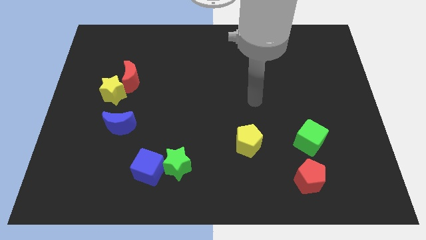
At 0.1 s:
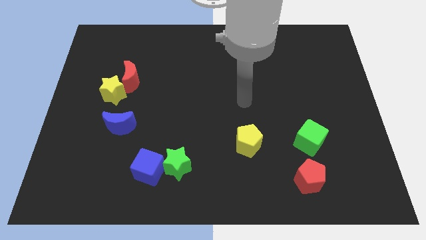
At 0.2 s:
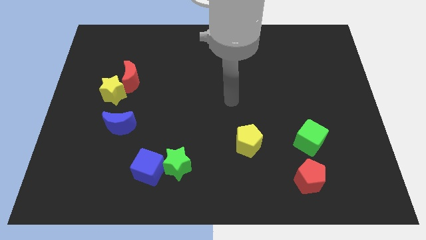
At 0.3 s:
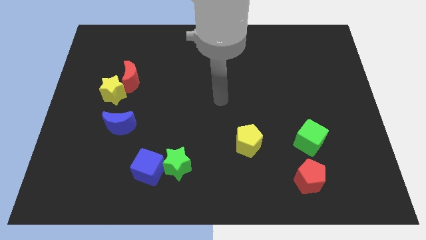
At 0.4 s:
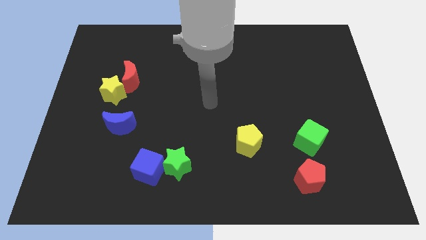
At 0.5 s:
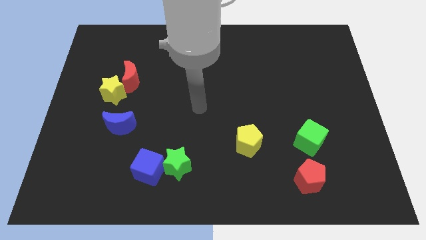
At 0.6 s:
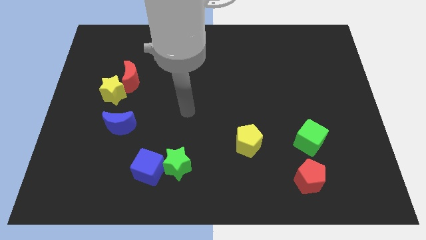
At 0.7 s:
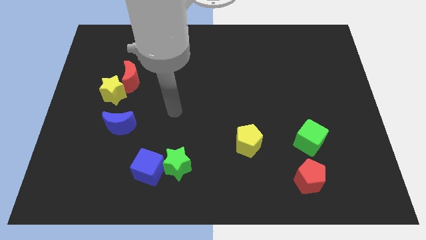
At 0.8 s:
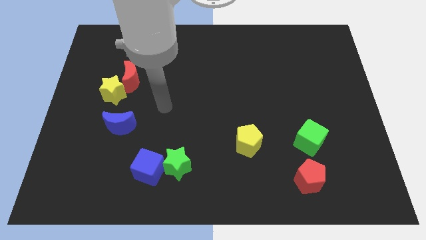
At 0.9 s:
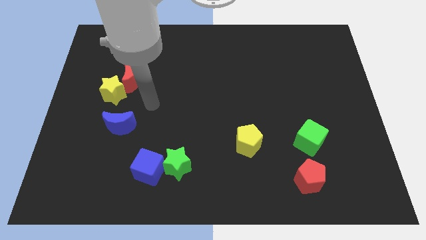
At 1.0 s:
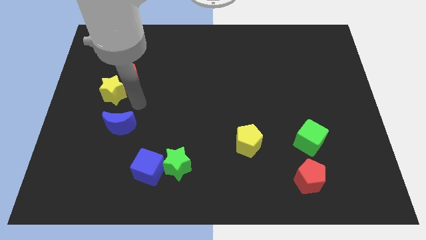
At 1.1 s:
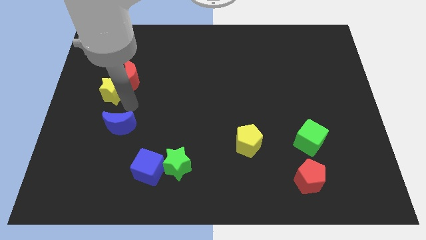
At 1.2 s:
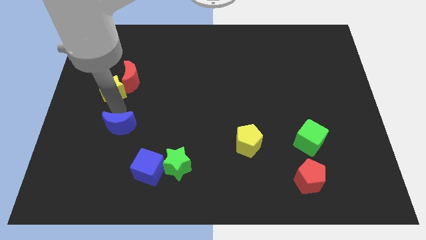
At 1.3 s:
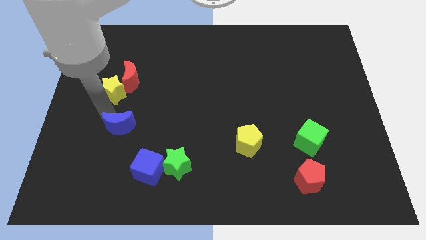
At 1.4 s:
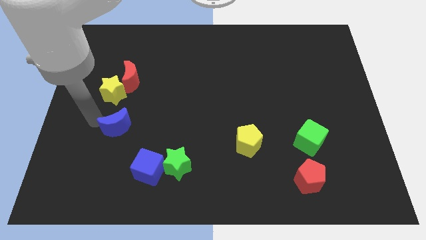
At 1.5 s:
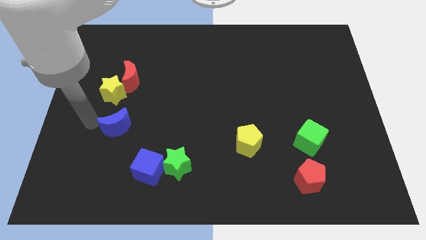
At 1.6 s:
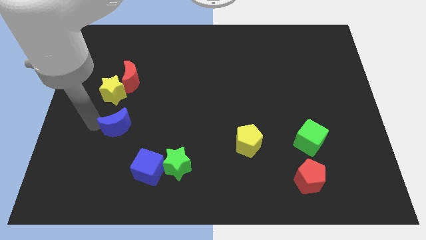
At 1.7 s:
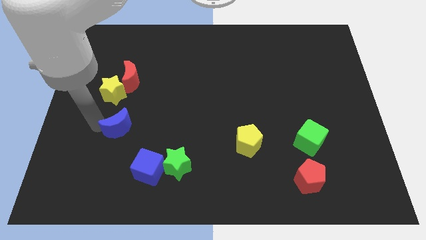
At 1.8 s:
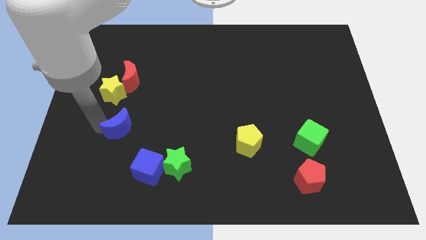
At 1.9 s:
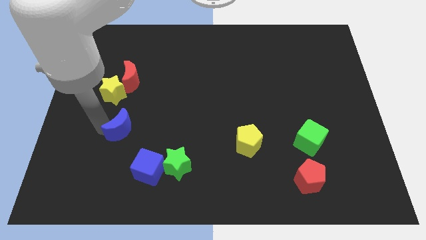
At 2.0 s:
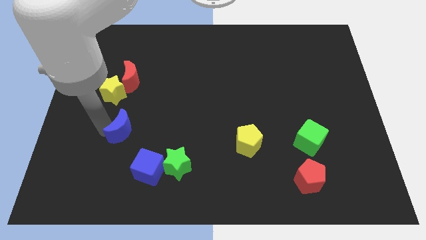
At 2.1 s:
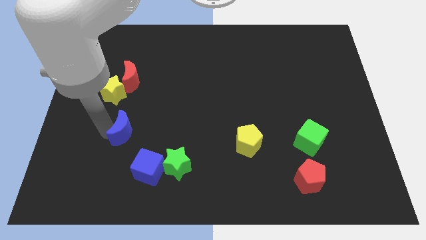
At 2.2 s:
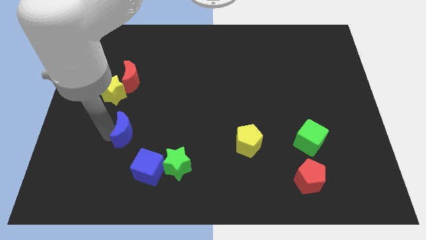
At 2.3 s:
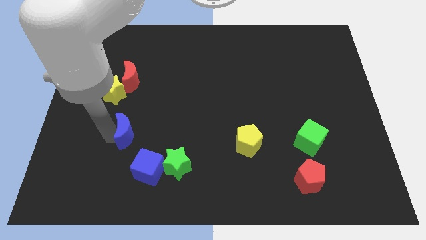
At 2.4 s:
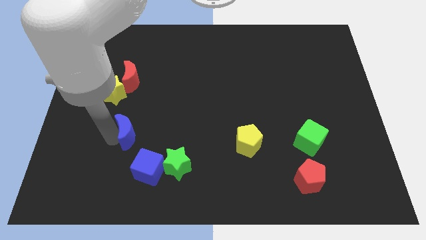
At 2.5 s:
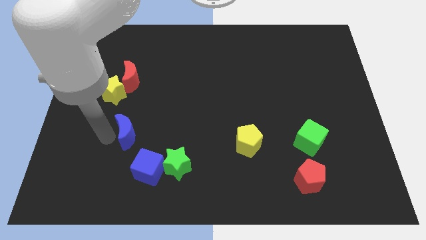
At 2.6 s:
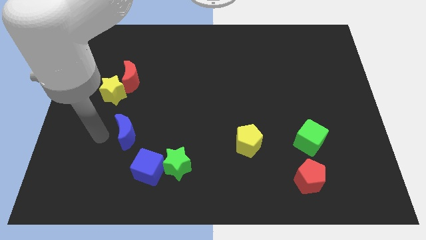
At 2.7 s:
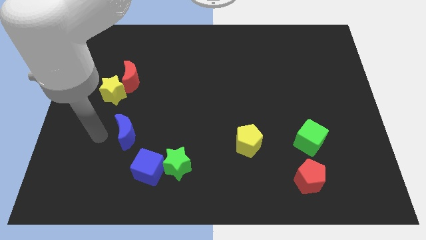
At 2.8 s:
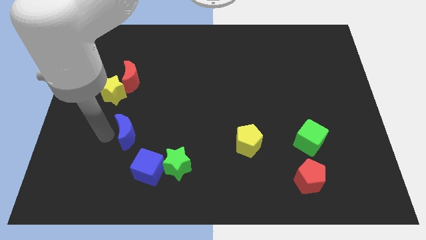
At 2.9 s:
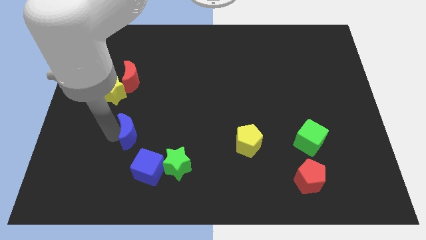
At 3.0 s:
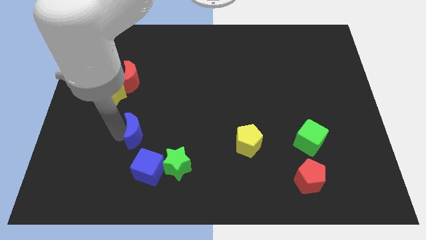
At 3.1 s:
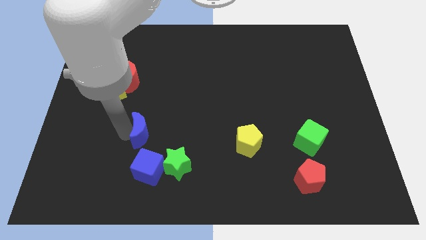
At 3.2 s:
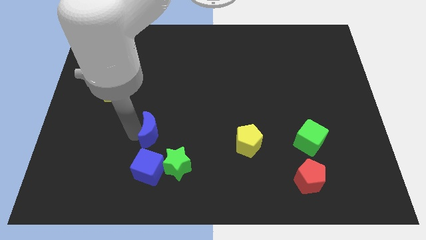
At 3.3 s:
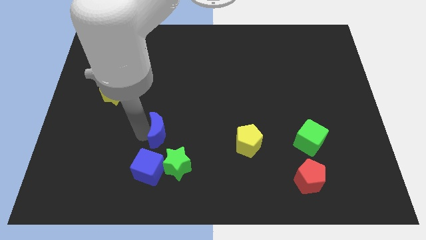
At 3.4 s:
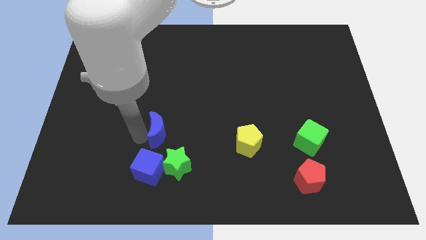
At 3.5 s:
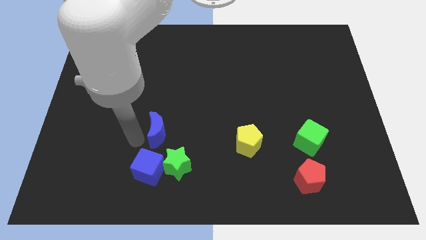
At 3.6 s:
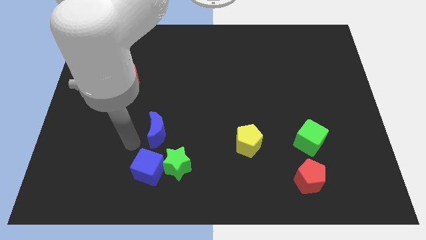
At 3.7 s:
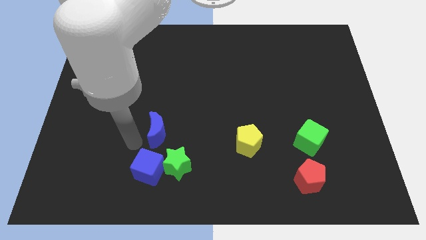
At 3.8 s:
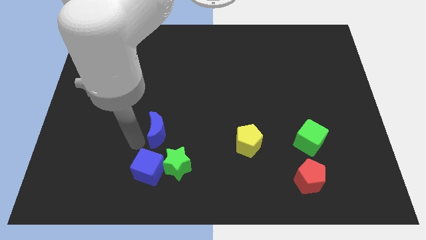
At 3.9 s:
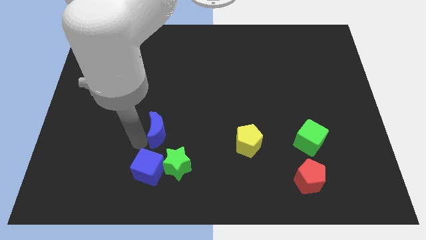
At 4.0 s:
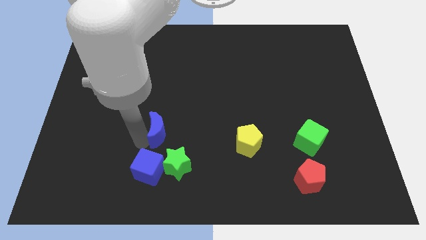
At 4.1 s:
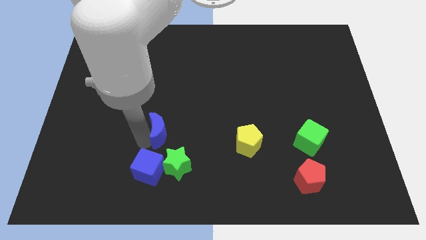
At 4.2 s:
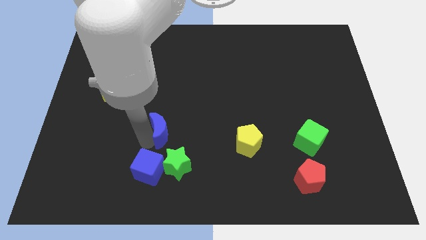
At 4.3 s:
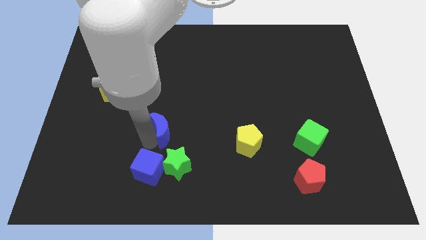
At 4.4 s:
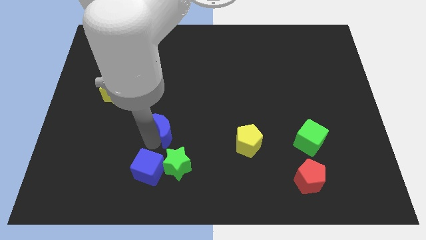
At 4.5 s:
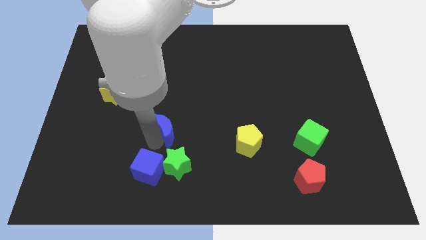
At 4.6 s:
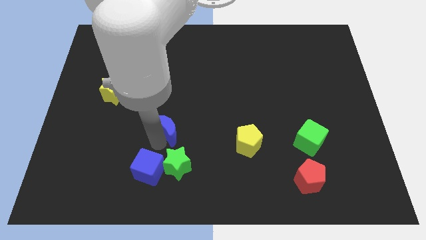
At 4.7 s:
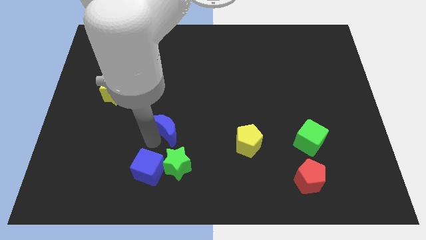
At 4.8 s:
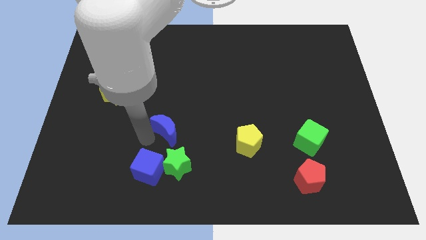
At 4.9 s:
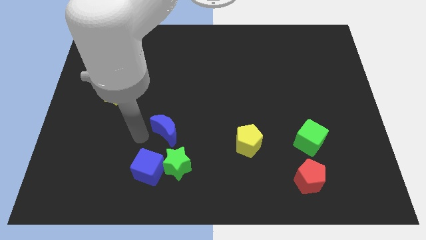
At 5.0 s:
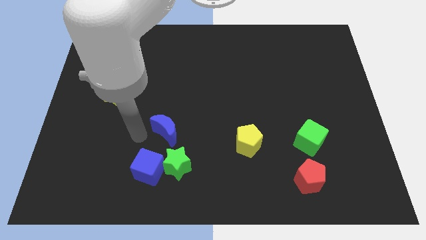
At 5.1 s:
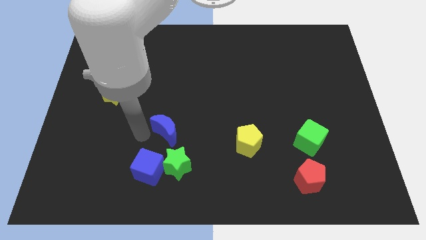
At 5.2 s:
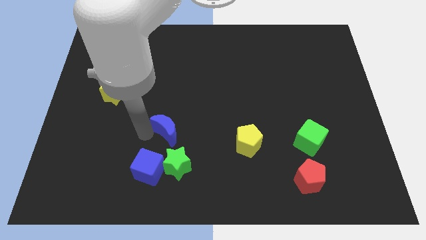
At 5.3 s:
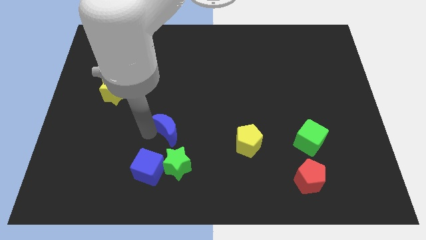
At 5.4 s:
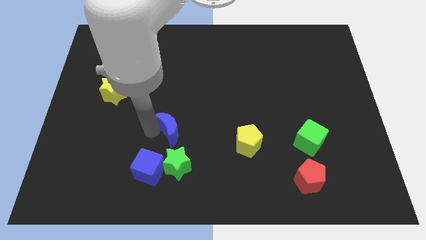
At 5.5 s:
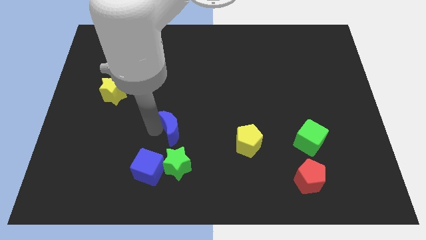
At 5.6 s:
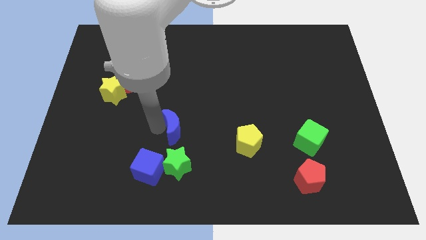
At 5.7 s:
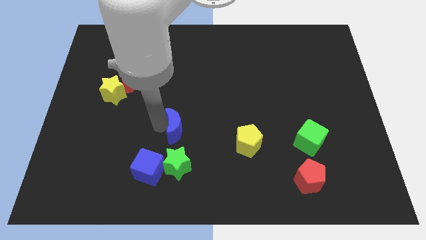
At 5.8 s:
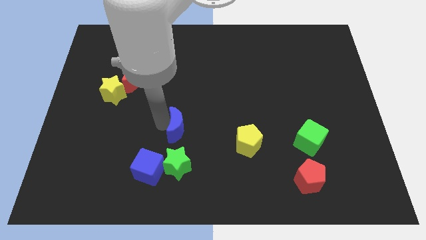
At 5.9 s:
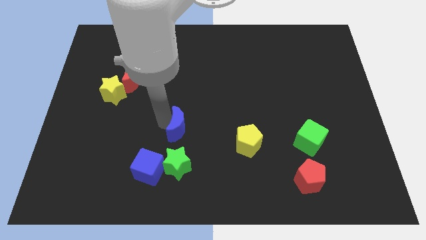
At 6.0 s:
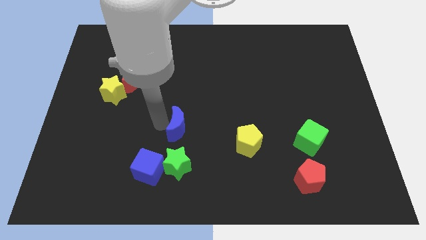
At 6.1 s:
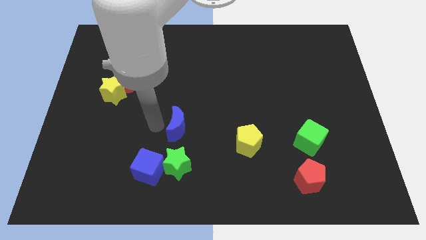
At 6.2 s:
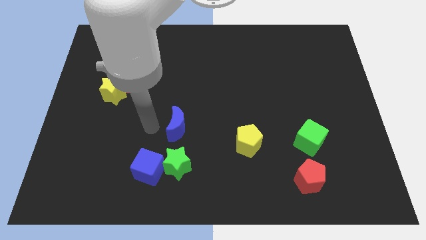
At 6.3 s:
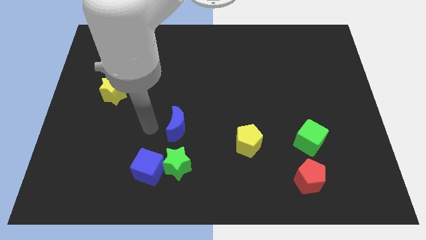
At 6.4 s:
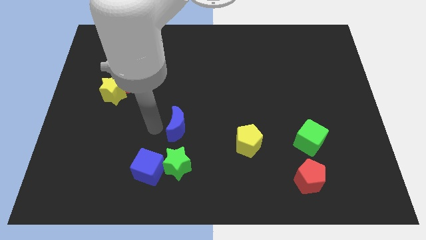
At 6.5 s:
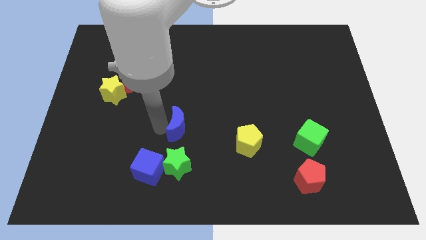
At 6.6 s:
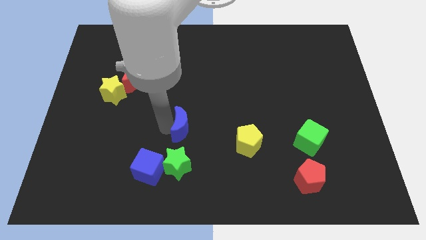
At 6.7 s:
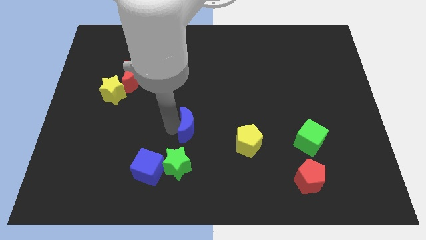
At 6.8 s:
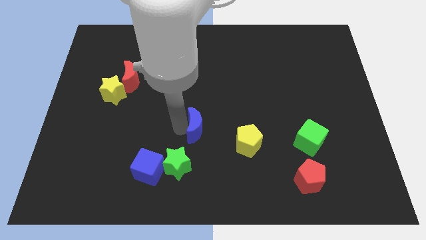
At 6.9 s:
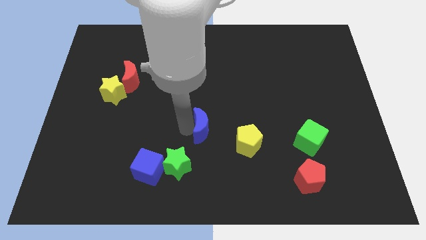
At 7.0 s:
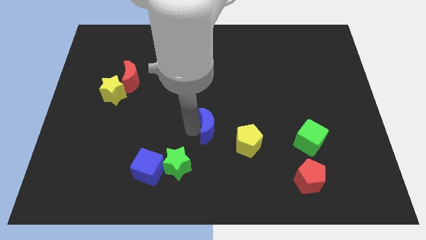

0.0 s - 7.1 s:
push the blue moon right

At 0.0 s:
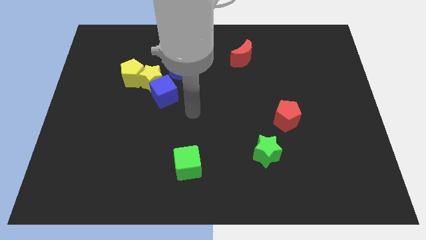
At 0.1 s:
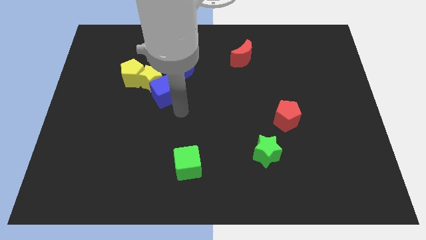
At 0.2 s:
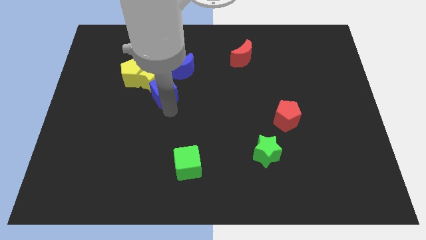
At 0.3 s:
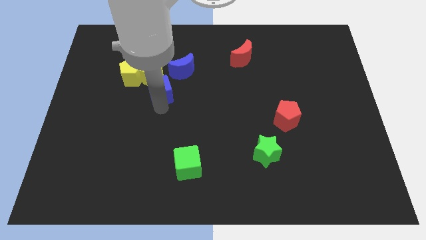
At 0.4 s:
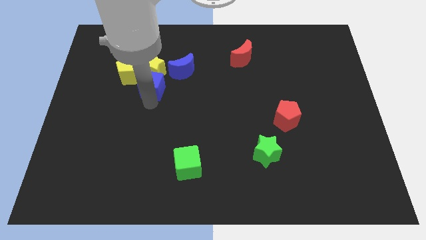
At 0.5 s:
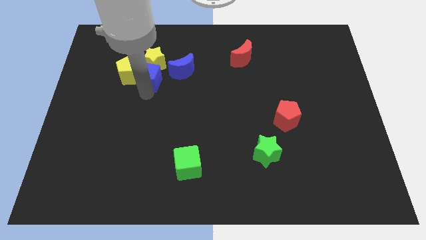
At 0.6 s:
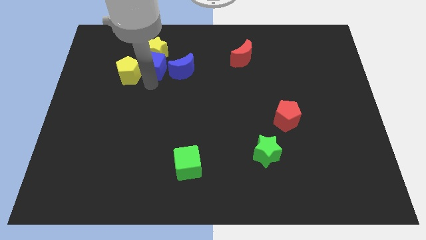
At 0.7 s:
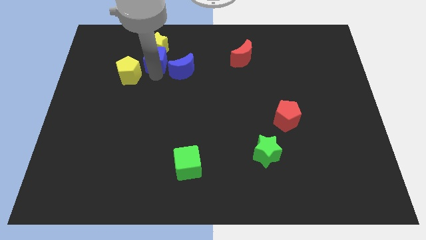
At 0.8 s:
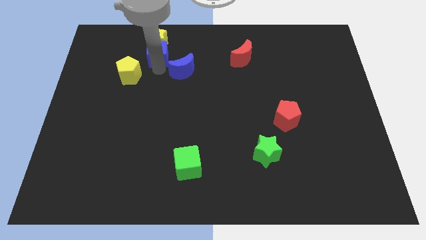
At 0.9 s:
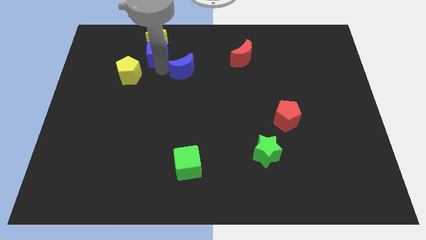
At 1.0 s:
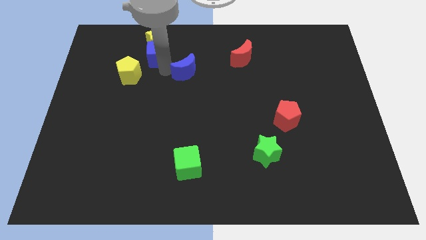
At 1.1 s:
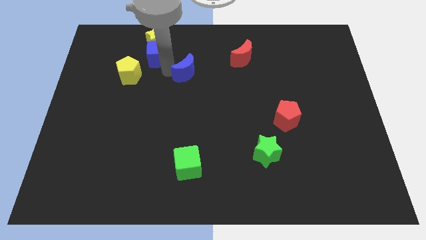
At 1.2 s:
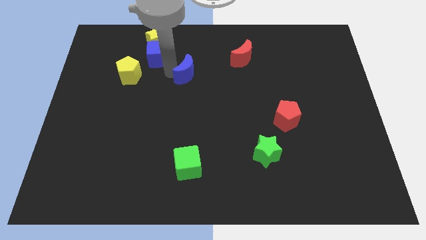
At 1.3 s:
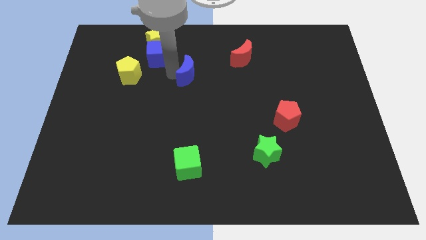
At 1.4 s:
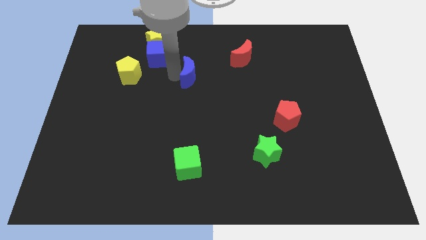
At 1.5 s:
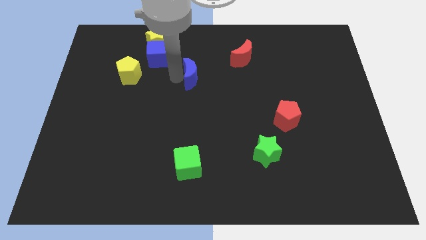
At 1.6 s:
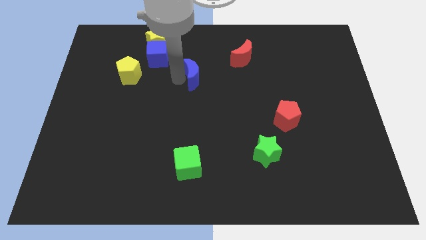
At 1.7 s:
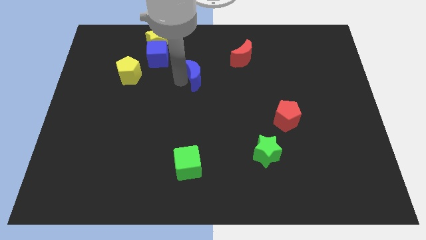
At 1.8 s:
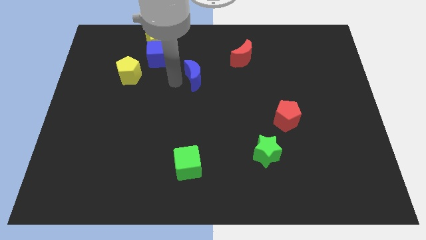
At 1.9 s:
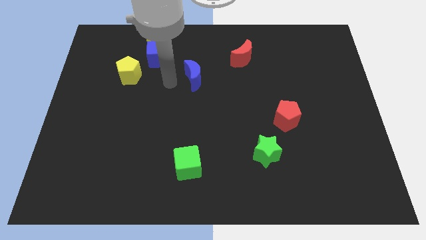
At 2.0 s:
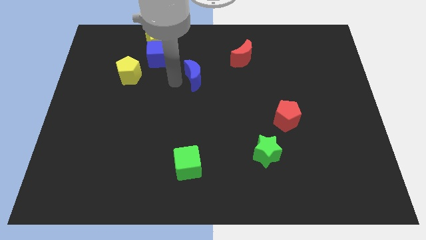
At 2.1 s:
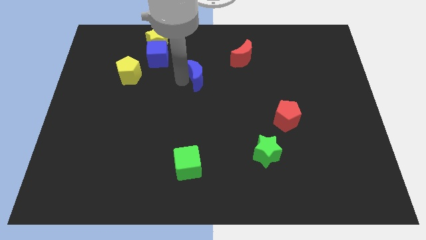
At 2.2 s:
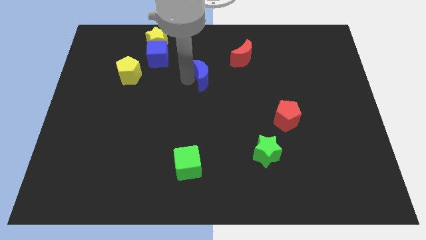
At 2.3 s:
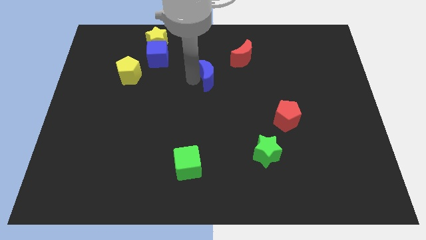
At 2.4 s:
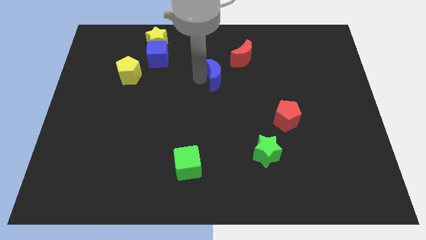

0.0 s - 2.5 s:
slightly move the blue moon right
